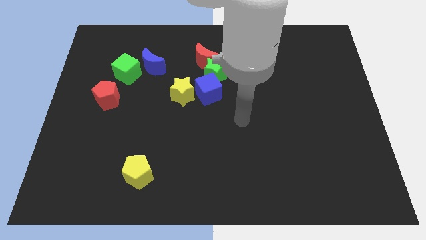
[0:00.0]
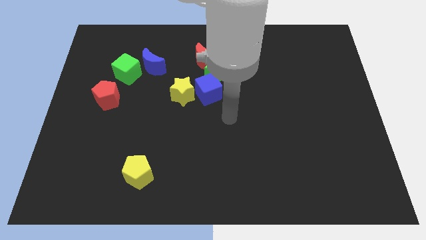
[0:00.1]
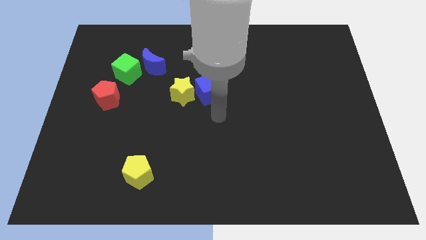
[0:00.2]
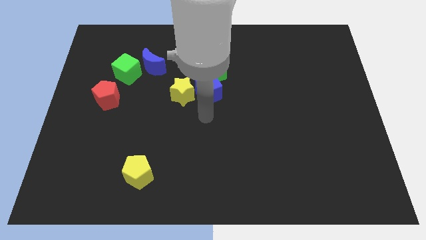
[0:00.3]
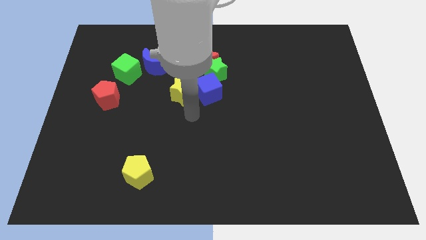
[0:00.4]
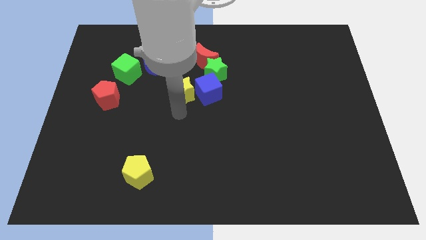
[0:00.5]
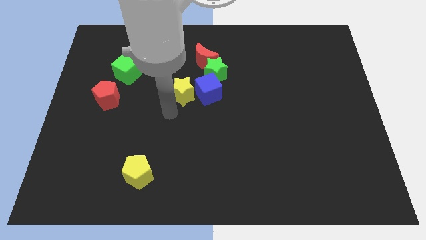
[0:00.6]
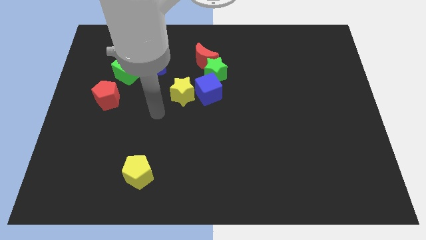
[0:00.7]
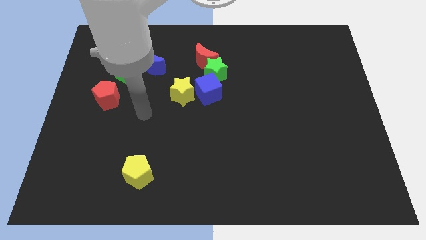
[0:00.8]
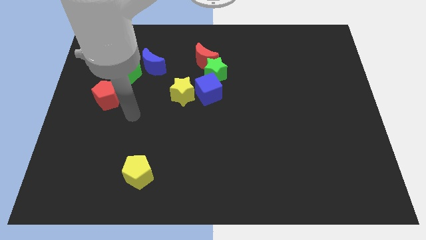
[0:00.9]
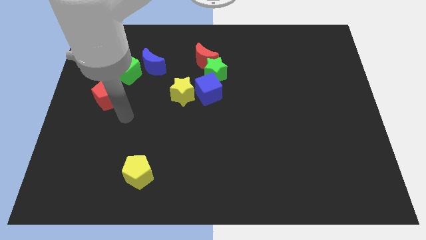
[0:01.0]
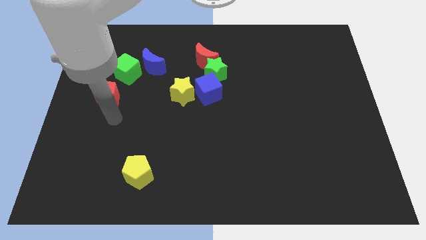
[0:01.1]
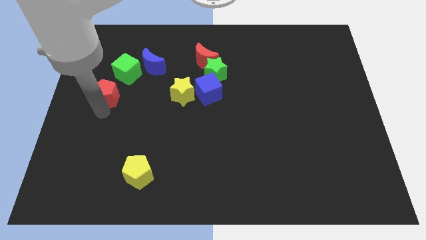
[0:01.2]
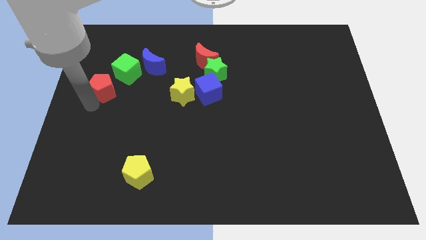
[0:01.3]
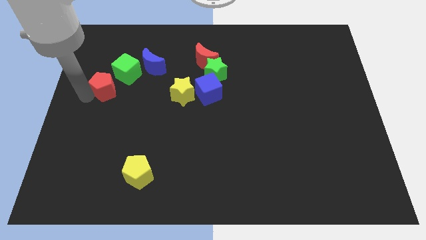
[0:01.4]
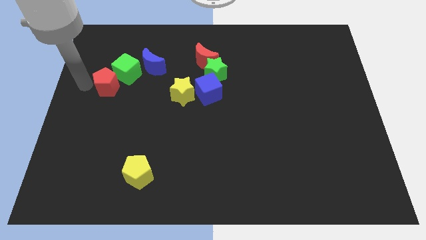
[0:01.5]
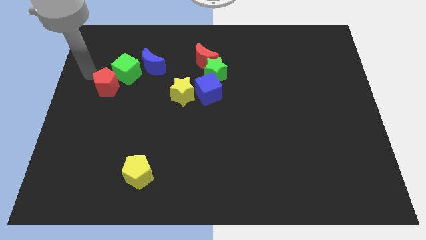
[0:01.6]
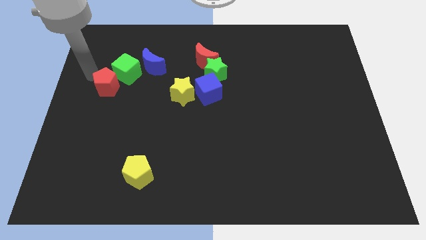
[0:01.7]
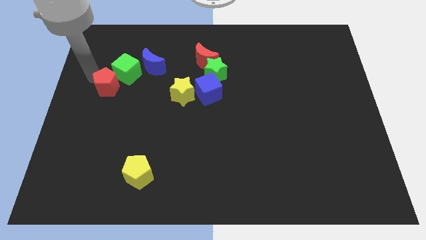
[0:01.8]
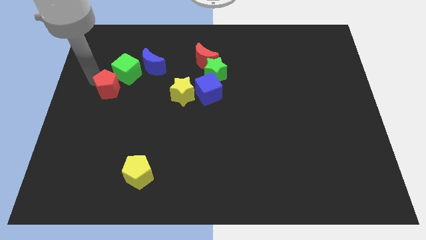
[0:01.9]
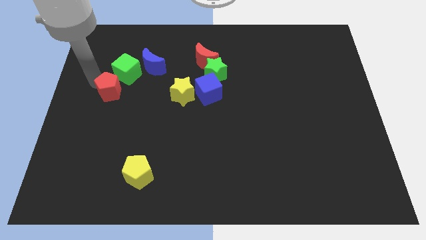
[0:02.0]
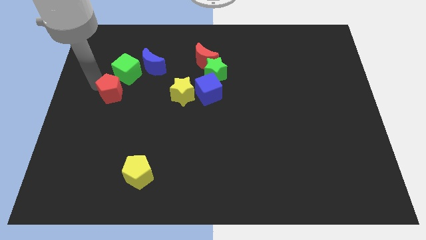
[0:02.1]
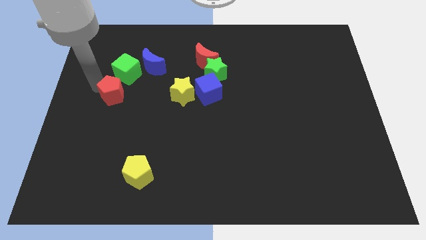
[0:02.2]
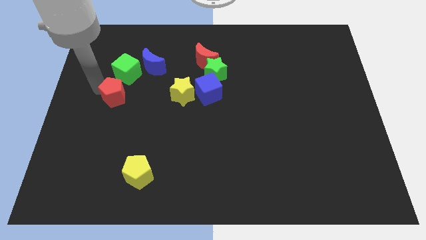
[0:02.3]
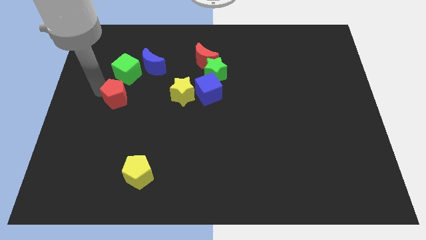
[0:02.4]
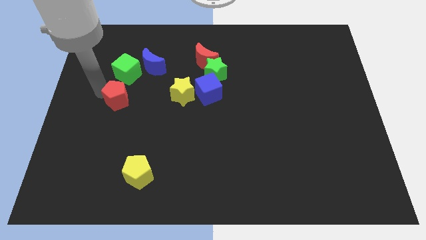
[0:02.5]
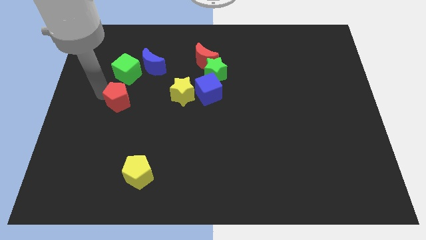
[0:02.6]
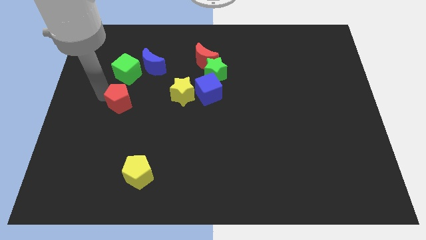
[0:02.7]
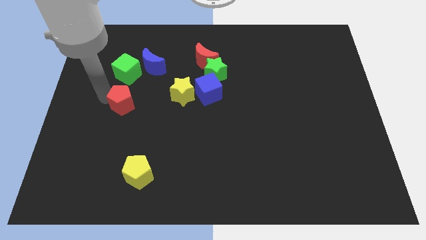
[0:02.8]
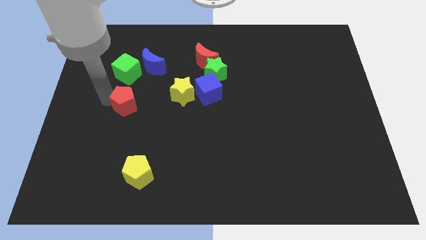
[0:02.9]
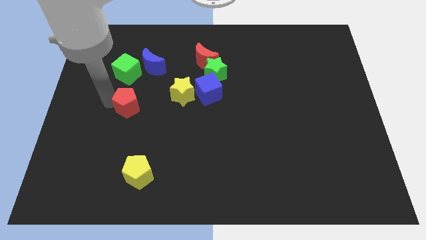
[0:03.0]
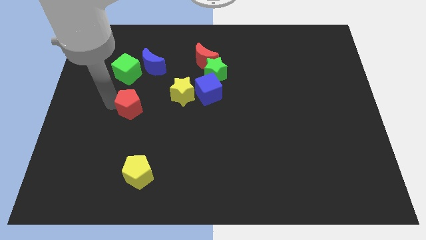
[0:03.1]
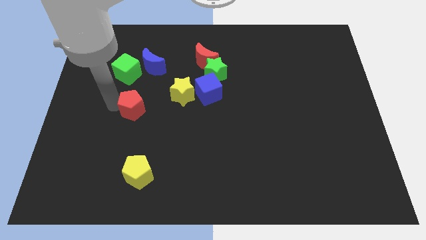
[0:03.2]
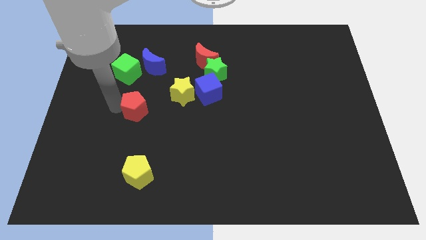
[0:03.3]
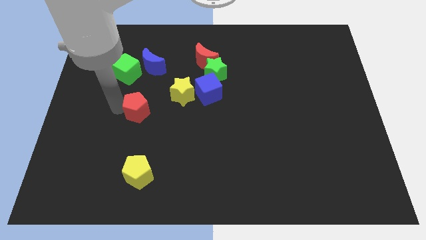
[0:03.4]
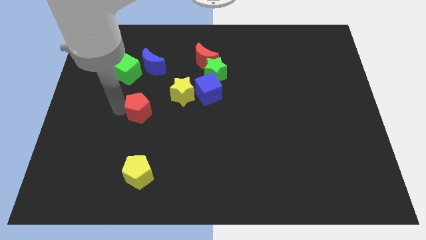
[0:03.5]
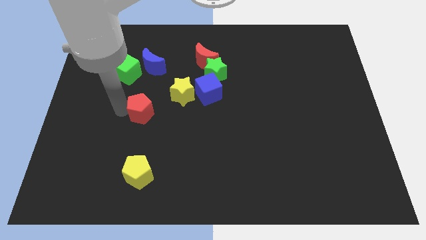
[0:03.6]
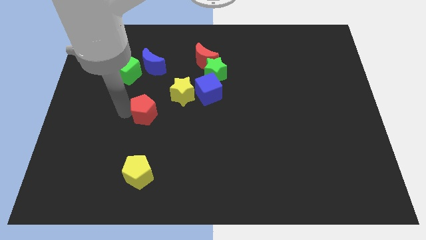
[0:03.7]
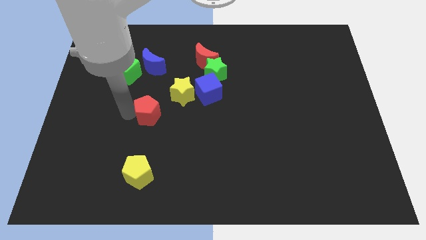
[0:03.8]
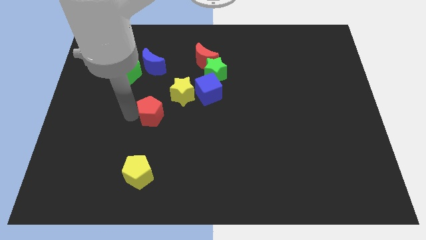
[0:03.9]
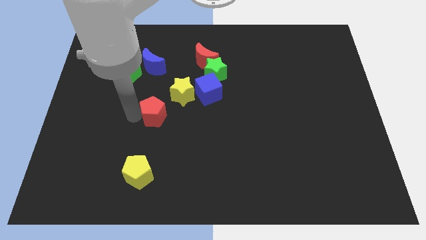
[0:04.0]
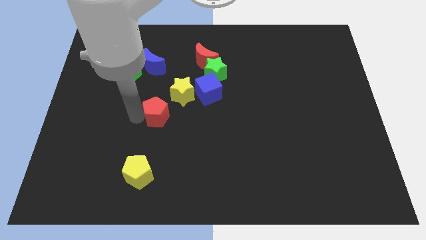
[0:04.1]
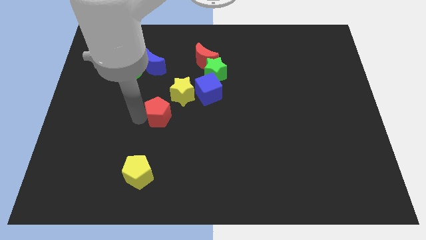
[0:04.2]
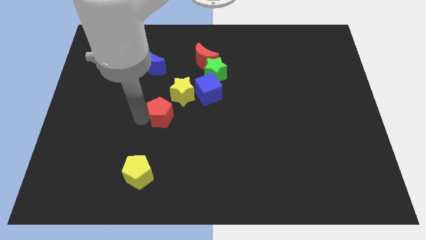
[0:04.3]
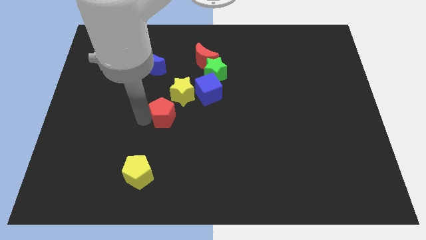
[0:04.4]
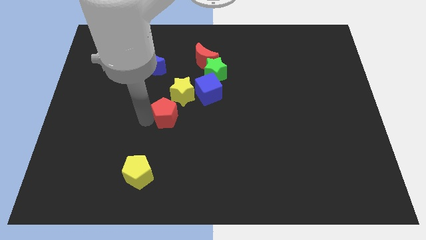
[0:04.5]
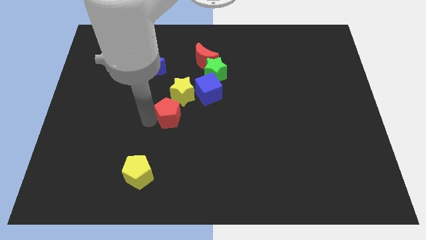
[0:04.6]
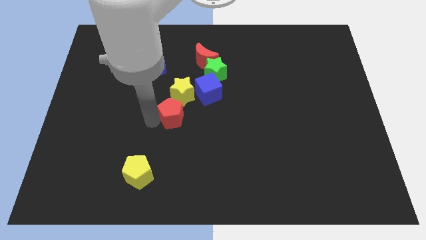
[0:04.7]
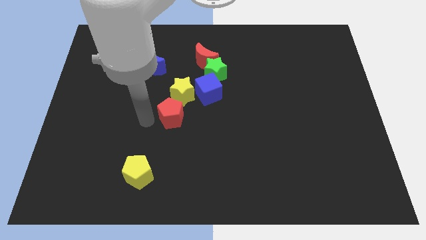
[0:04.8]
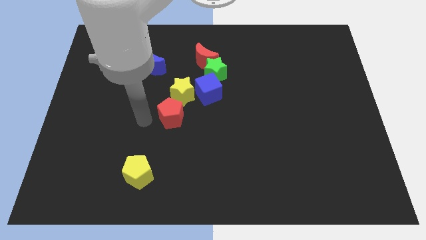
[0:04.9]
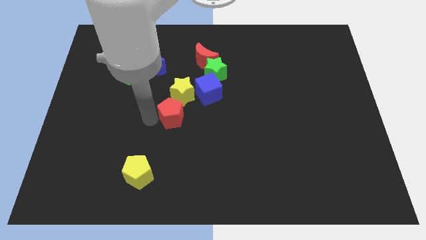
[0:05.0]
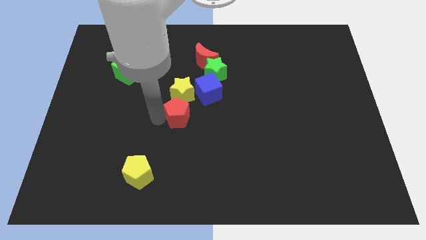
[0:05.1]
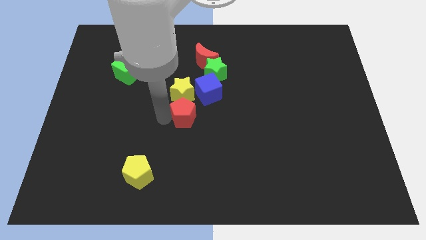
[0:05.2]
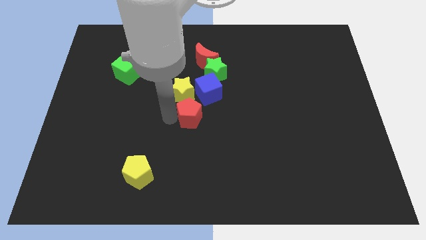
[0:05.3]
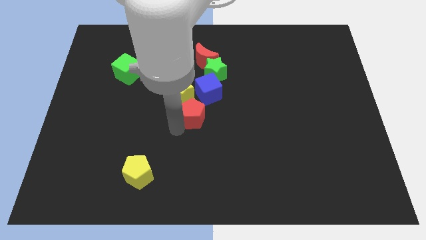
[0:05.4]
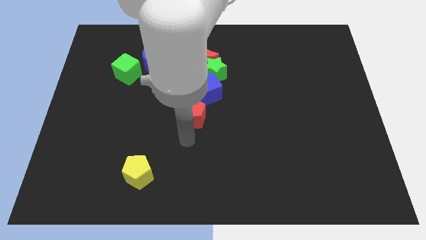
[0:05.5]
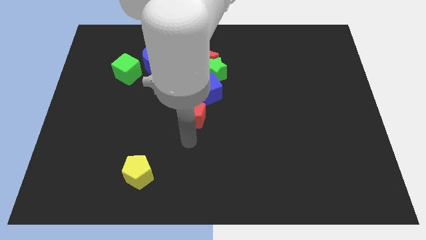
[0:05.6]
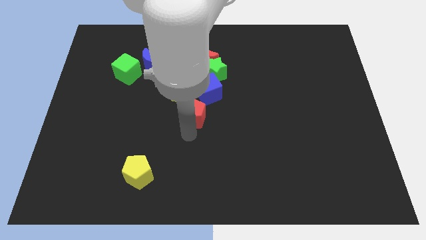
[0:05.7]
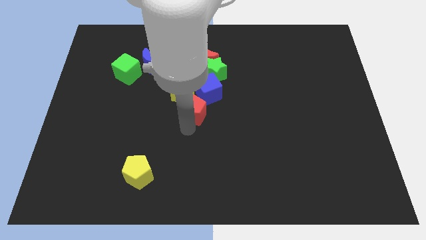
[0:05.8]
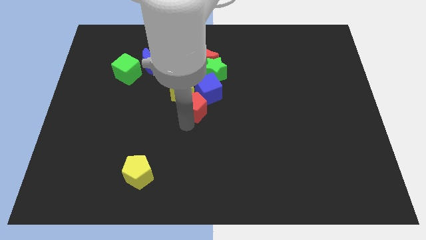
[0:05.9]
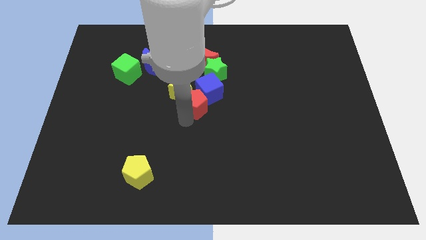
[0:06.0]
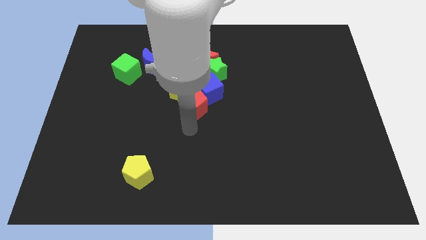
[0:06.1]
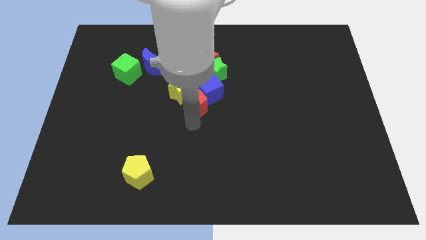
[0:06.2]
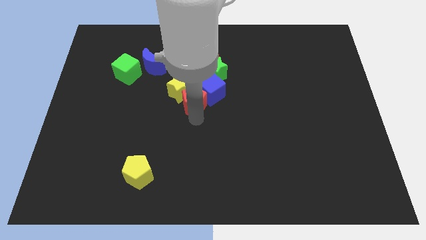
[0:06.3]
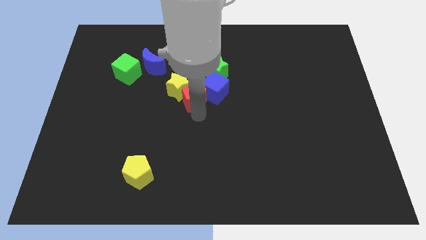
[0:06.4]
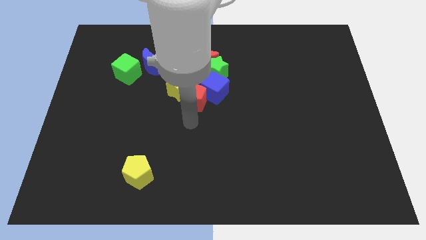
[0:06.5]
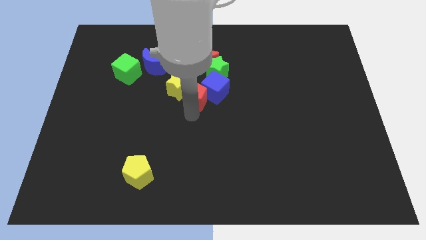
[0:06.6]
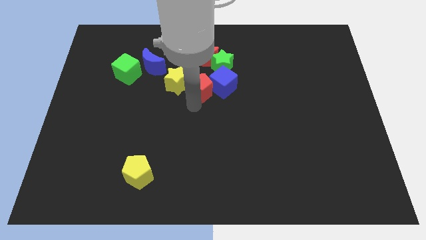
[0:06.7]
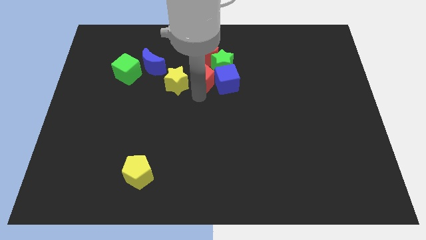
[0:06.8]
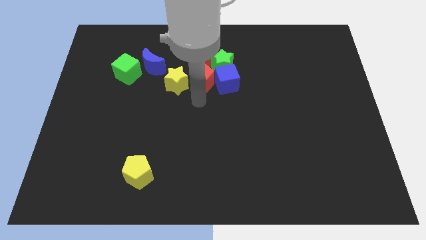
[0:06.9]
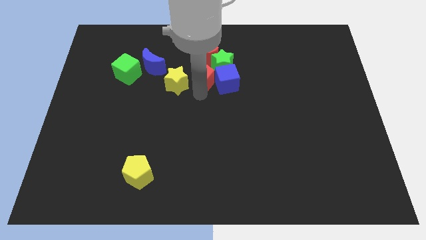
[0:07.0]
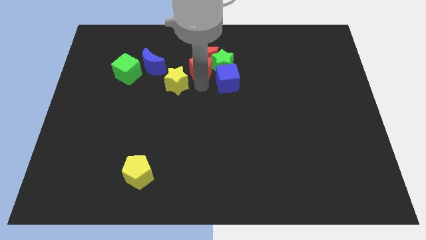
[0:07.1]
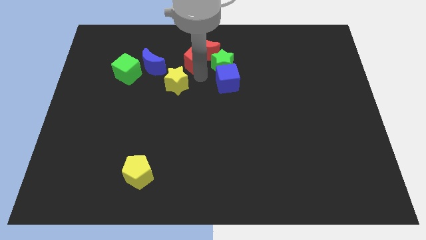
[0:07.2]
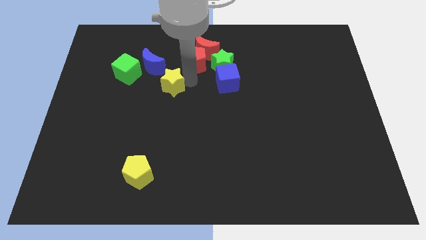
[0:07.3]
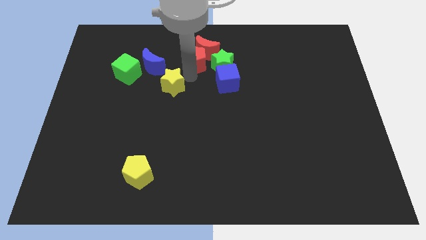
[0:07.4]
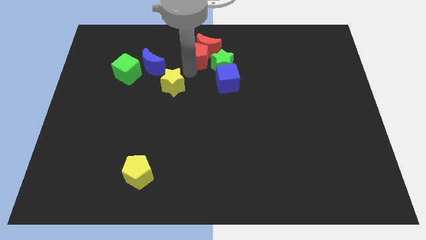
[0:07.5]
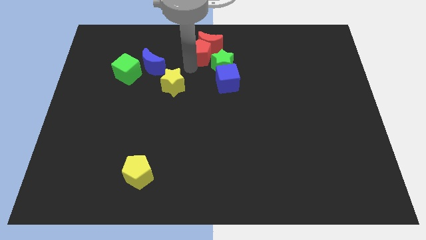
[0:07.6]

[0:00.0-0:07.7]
move the red pentagon to the top side
